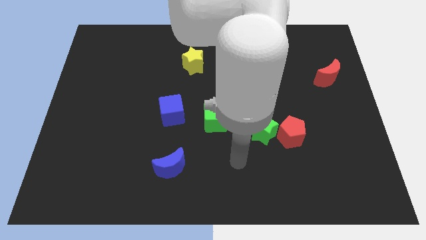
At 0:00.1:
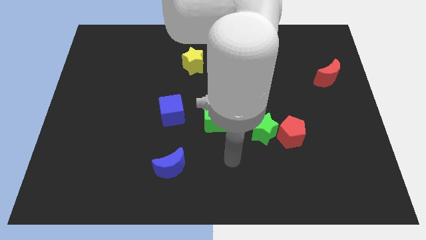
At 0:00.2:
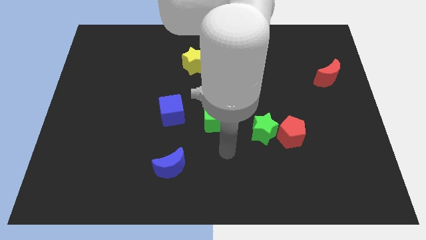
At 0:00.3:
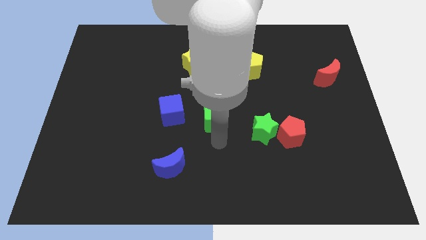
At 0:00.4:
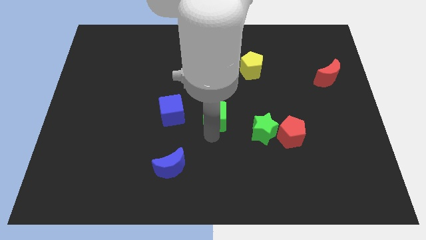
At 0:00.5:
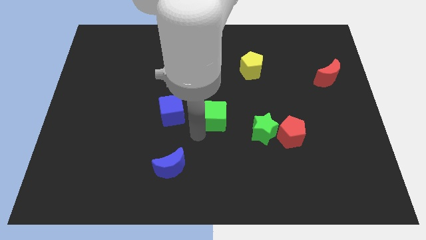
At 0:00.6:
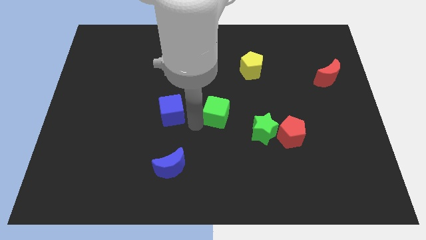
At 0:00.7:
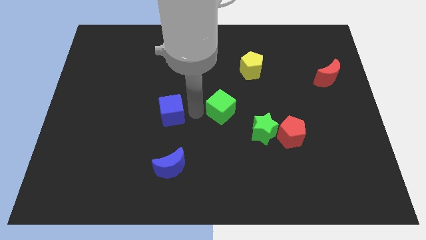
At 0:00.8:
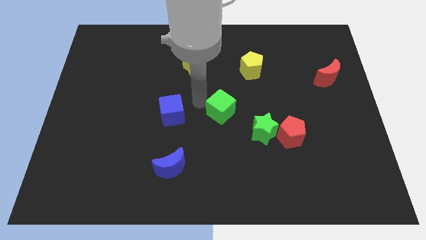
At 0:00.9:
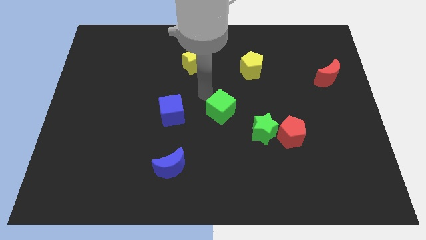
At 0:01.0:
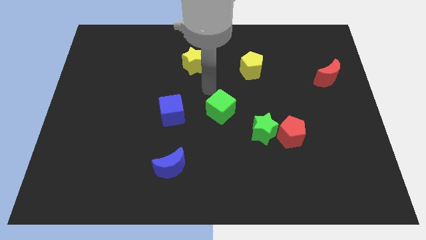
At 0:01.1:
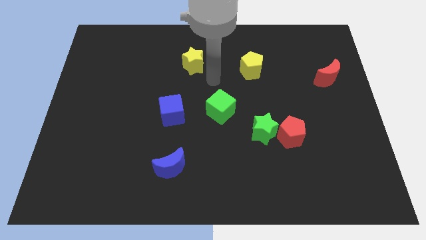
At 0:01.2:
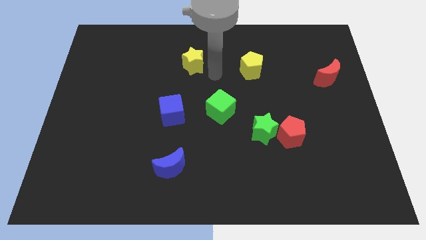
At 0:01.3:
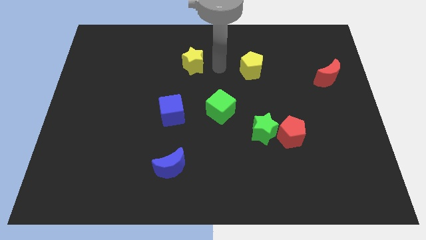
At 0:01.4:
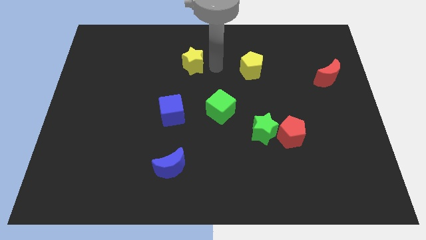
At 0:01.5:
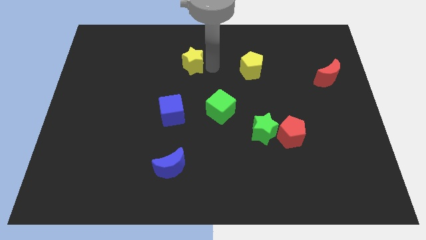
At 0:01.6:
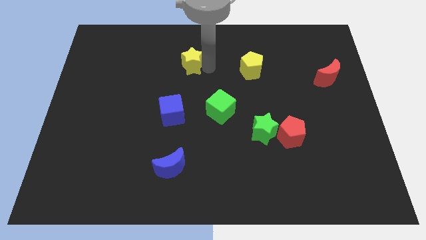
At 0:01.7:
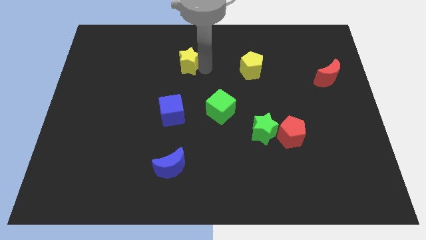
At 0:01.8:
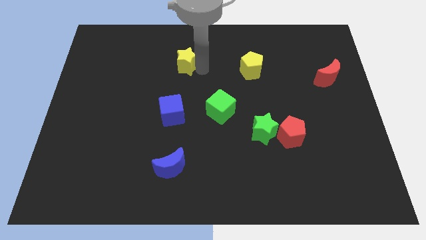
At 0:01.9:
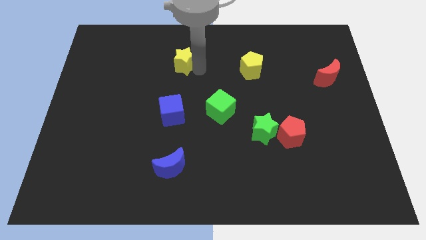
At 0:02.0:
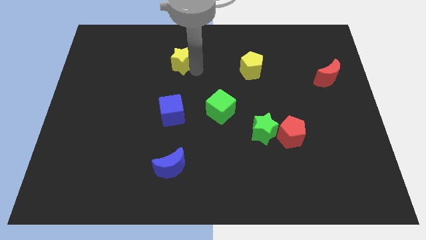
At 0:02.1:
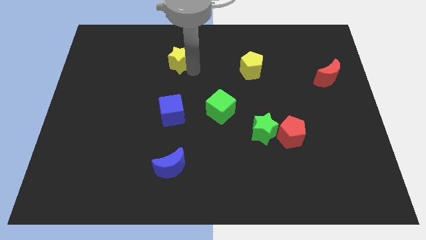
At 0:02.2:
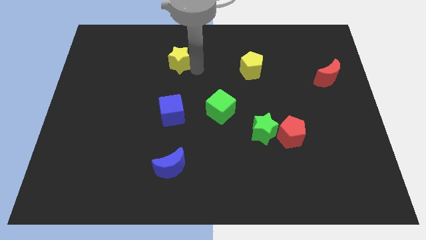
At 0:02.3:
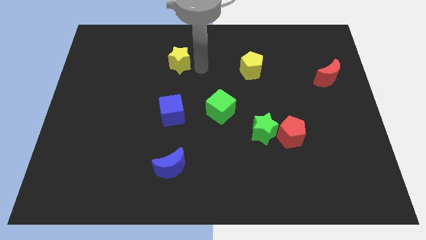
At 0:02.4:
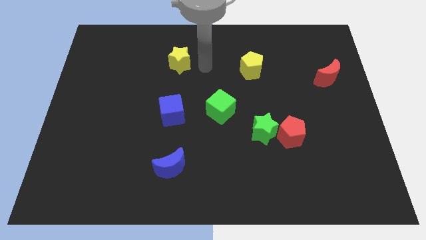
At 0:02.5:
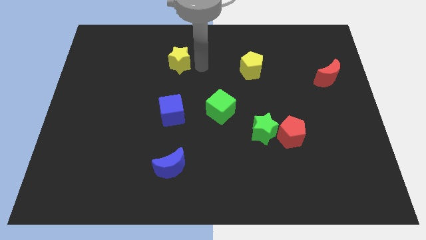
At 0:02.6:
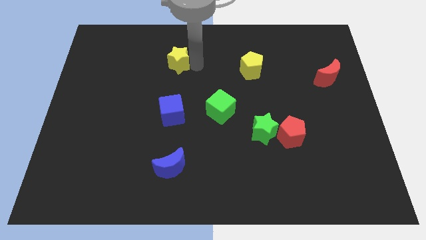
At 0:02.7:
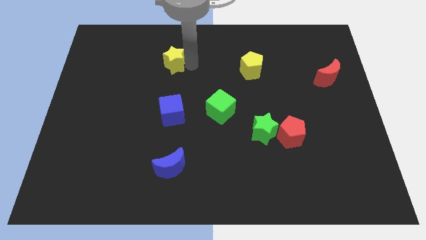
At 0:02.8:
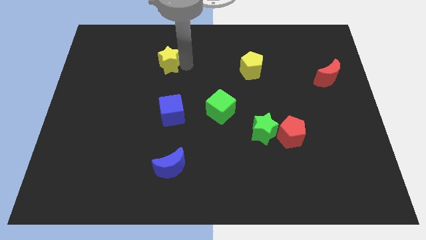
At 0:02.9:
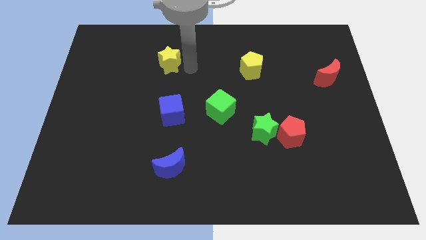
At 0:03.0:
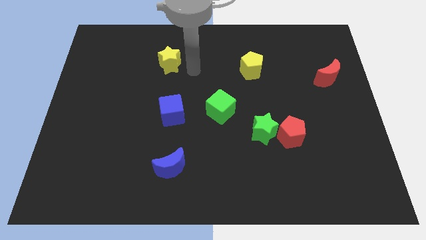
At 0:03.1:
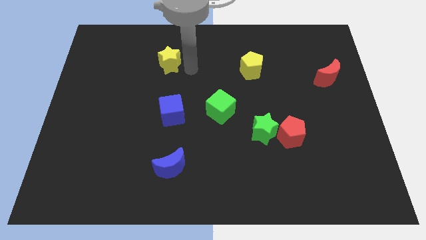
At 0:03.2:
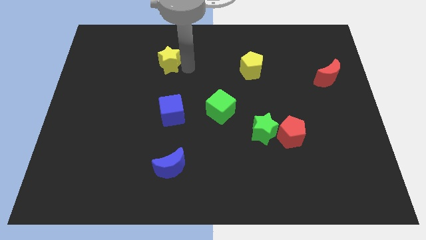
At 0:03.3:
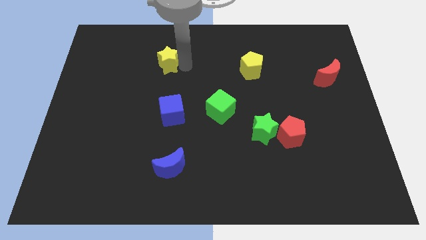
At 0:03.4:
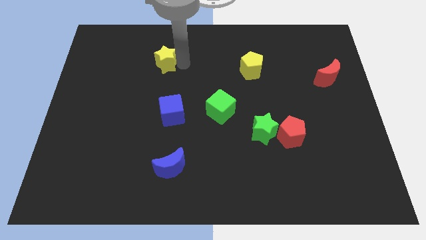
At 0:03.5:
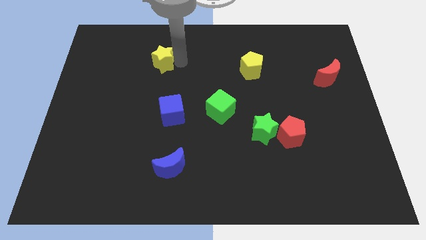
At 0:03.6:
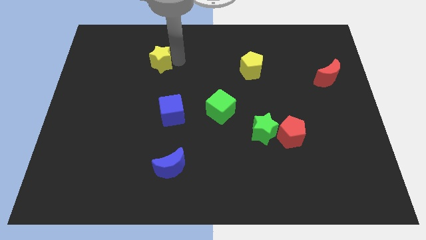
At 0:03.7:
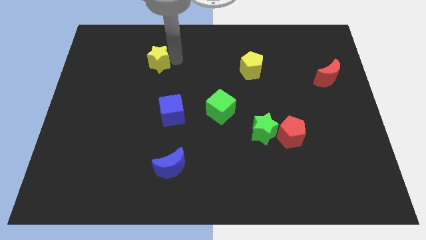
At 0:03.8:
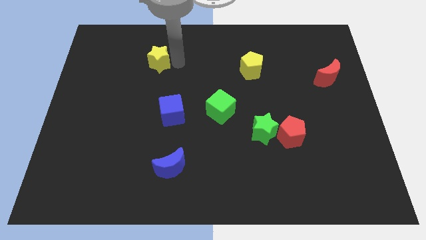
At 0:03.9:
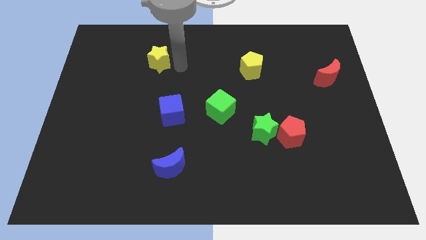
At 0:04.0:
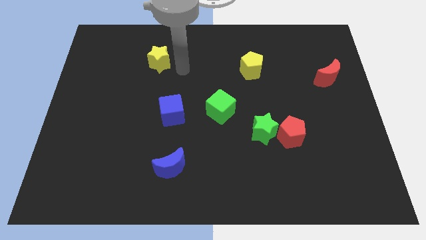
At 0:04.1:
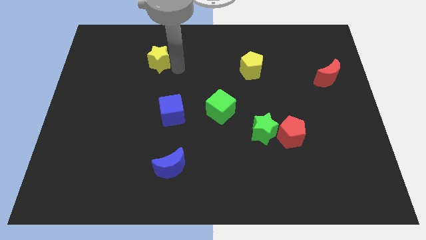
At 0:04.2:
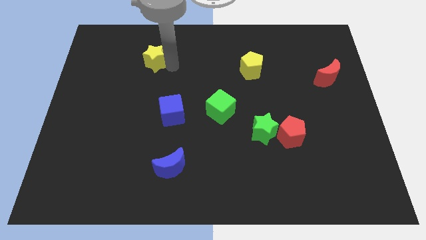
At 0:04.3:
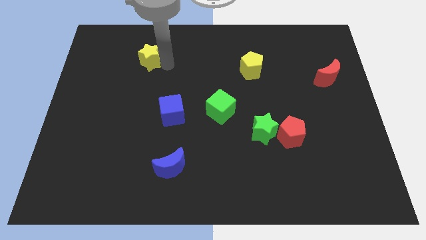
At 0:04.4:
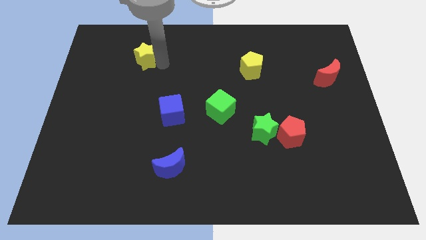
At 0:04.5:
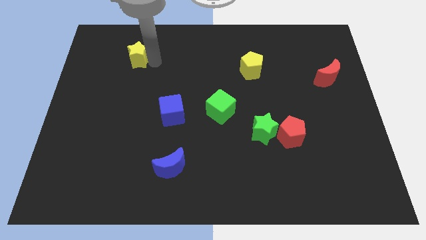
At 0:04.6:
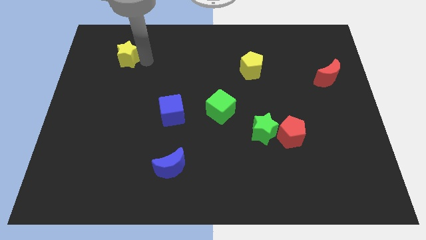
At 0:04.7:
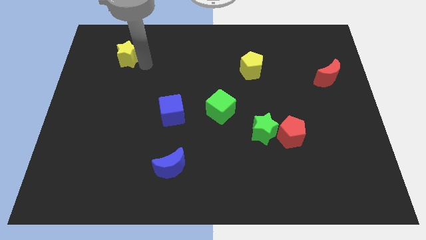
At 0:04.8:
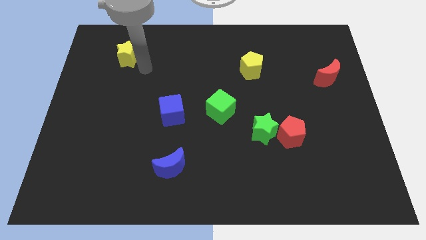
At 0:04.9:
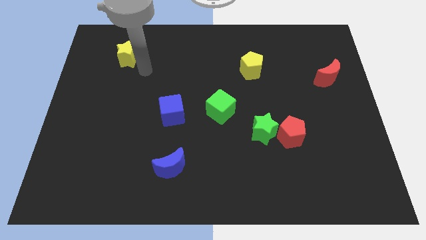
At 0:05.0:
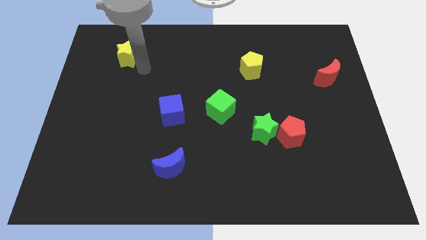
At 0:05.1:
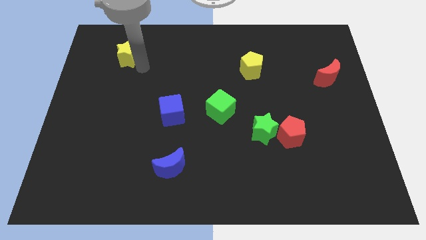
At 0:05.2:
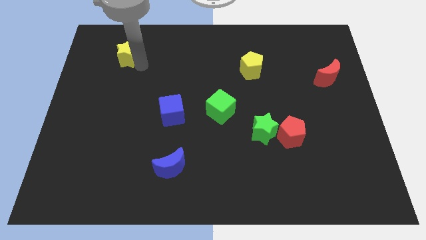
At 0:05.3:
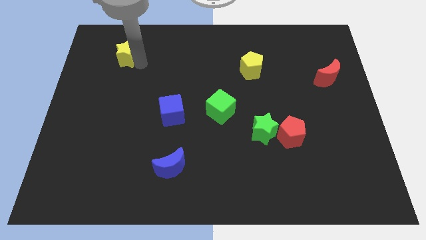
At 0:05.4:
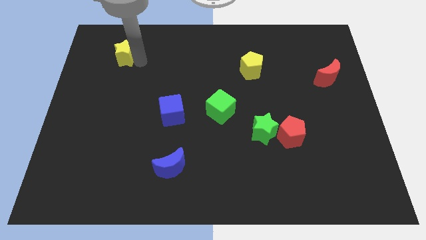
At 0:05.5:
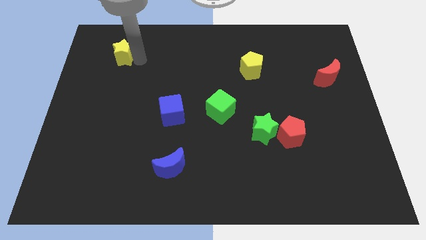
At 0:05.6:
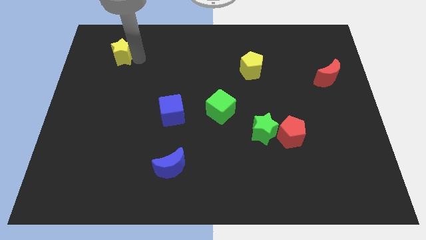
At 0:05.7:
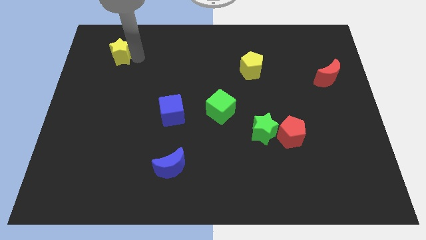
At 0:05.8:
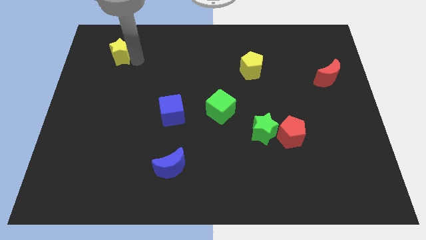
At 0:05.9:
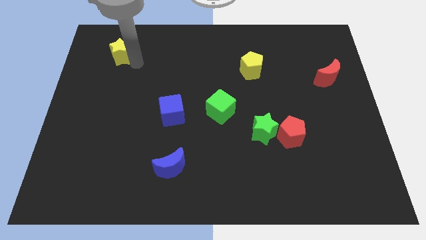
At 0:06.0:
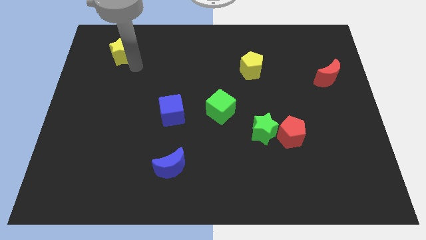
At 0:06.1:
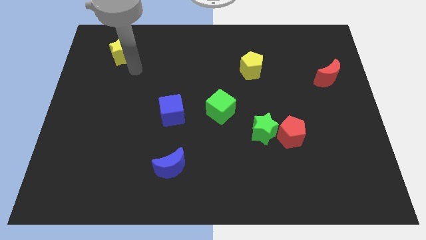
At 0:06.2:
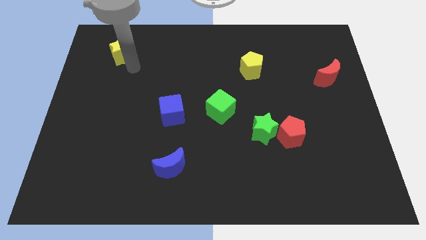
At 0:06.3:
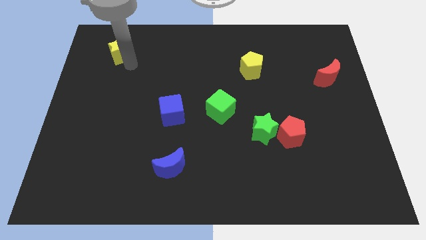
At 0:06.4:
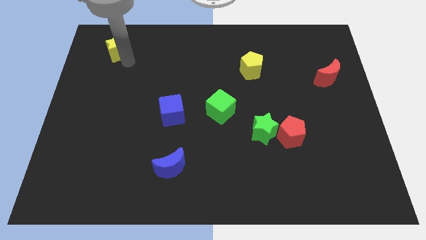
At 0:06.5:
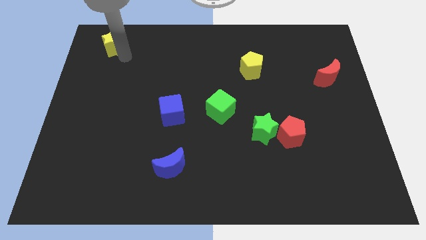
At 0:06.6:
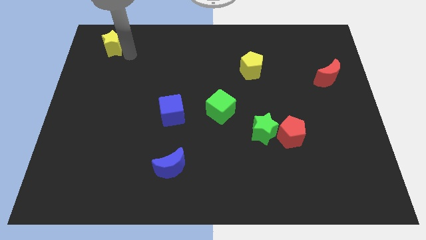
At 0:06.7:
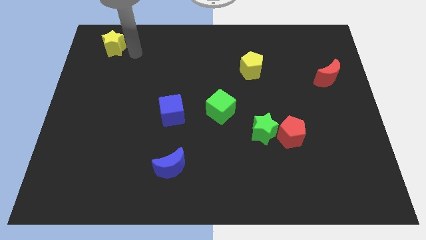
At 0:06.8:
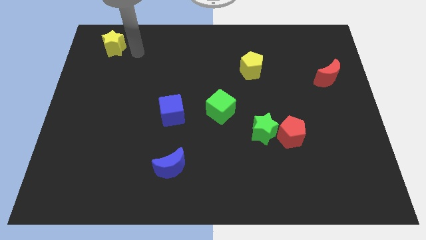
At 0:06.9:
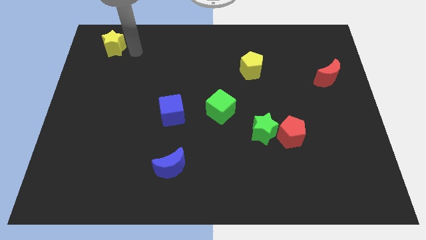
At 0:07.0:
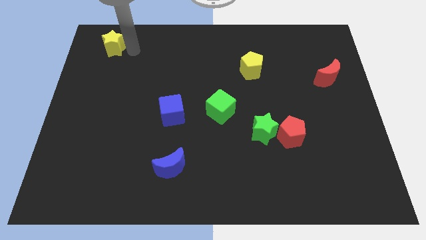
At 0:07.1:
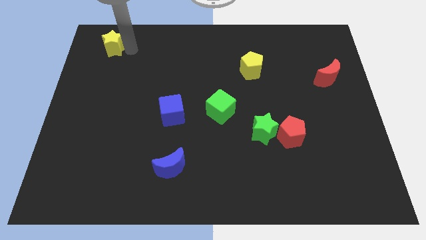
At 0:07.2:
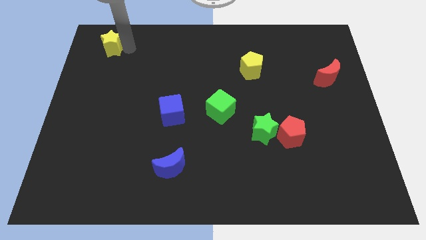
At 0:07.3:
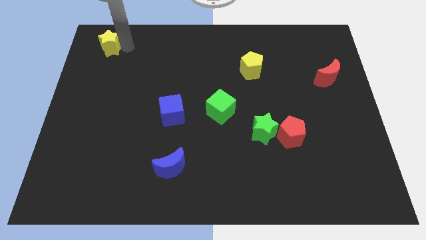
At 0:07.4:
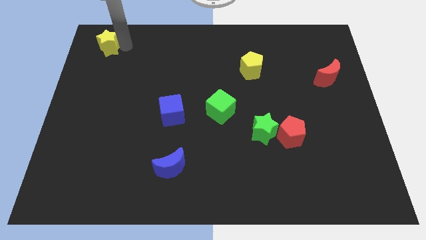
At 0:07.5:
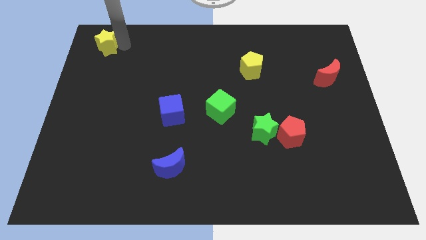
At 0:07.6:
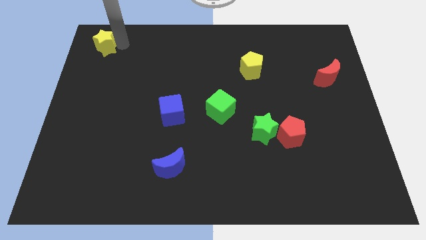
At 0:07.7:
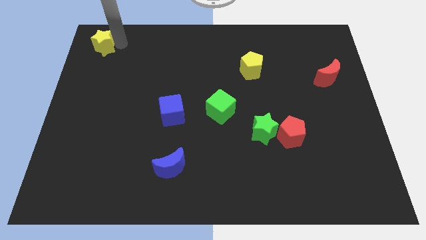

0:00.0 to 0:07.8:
slide the yellow star to the top left
